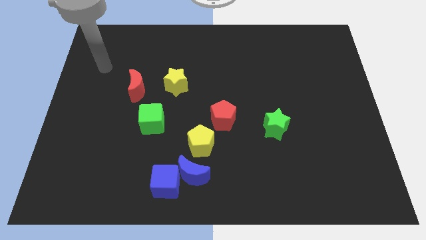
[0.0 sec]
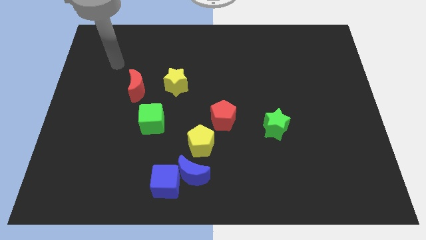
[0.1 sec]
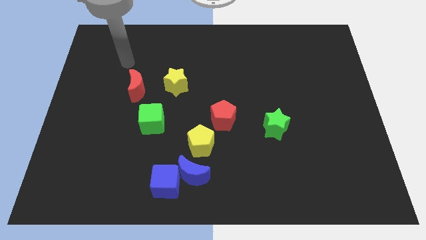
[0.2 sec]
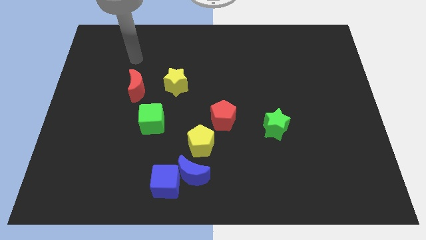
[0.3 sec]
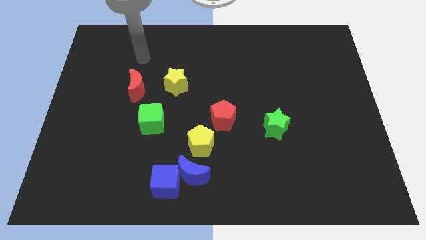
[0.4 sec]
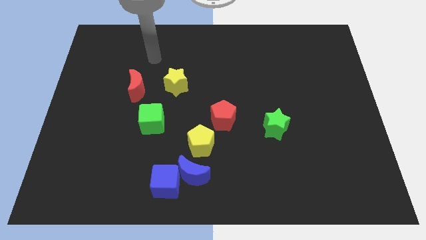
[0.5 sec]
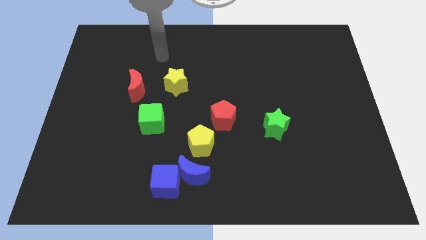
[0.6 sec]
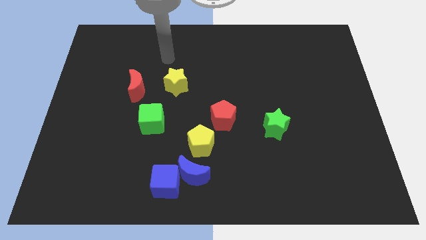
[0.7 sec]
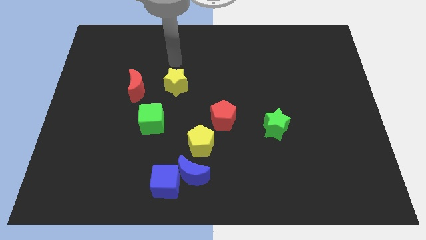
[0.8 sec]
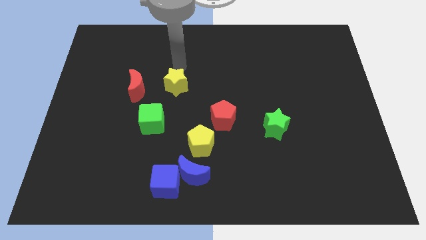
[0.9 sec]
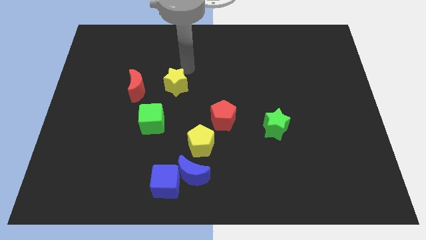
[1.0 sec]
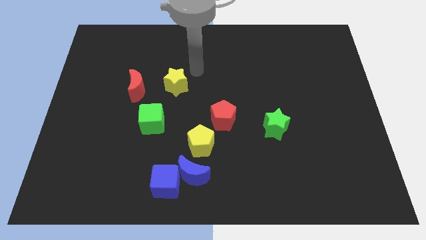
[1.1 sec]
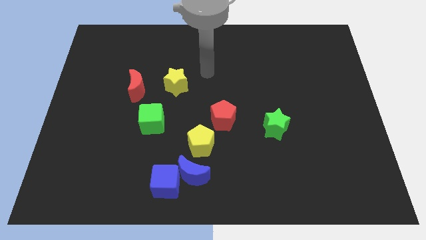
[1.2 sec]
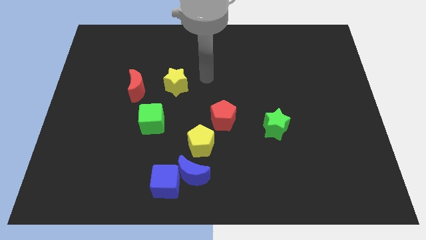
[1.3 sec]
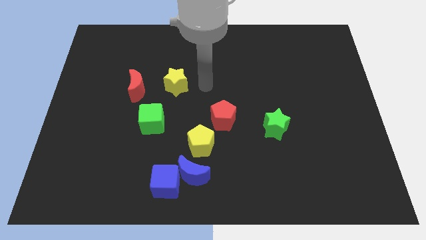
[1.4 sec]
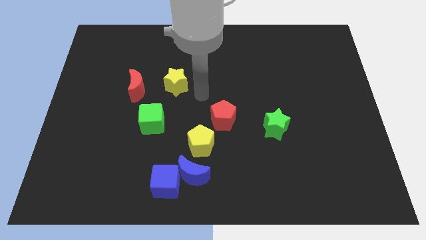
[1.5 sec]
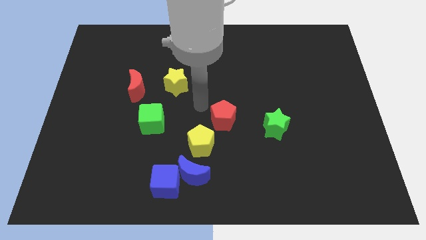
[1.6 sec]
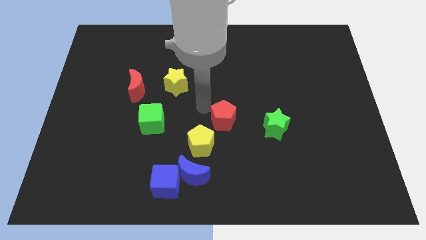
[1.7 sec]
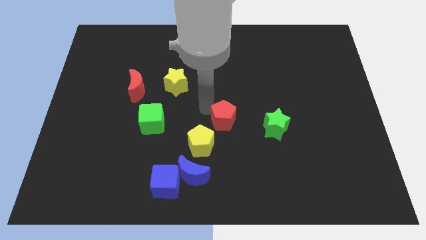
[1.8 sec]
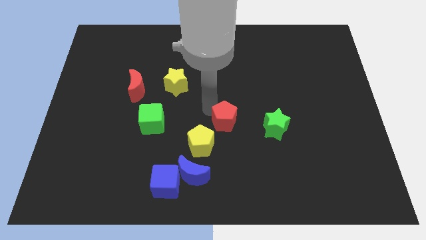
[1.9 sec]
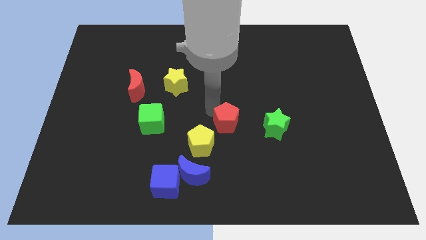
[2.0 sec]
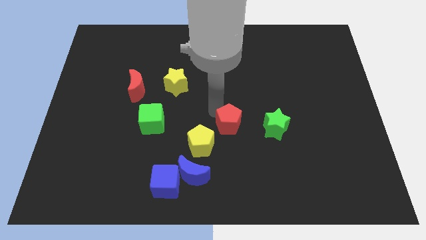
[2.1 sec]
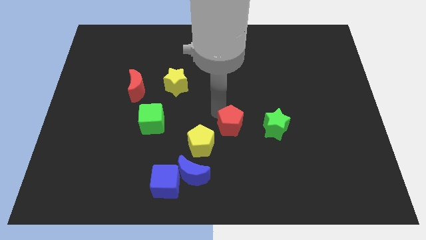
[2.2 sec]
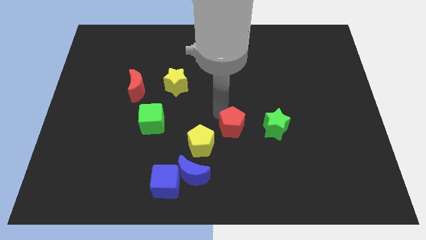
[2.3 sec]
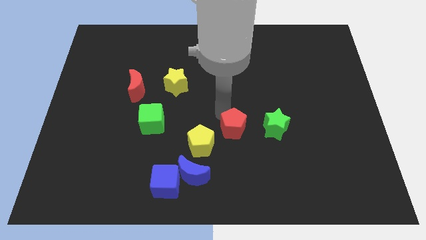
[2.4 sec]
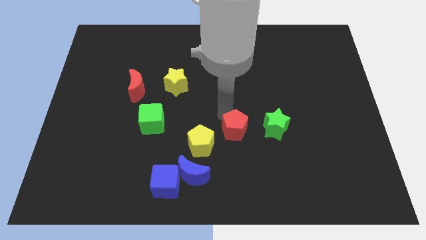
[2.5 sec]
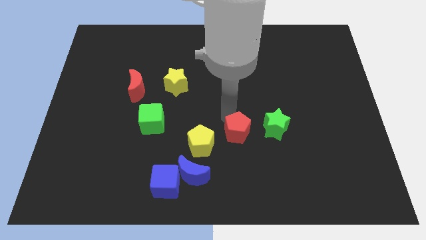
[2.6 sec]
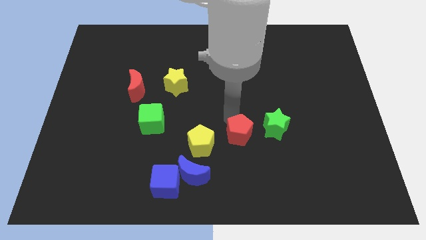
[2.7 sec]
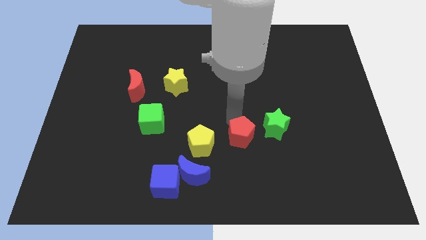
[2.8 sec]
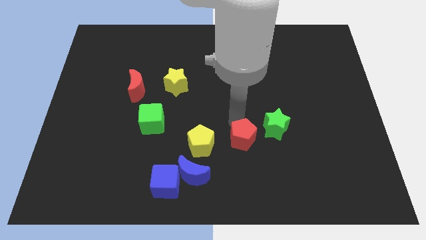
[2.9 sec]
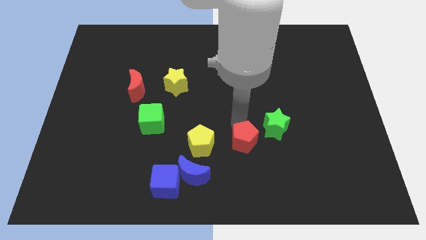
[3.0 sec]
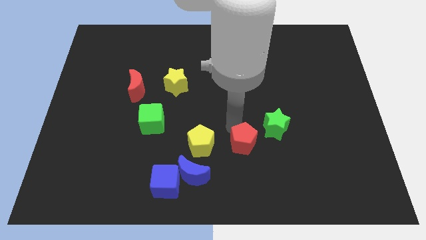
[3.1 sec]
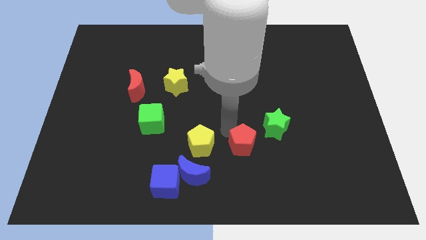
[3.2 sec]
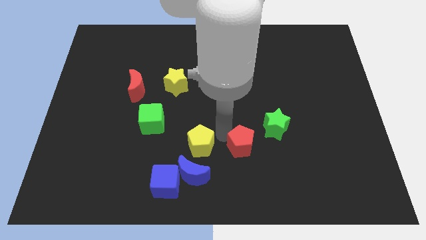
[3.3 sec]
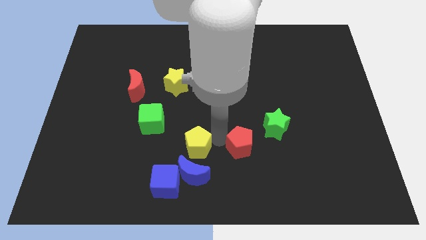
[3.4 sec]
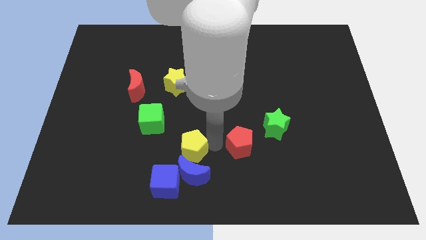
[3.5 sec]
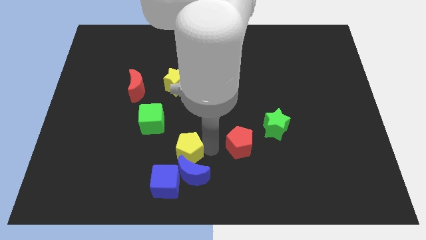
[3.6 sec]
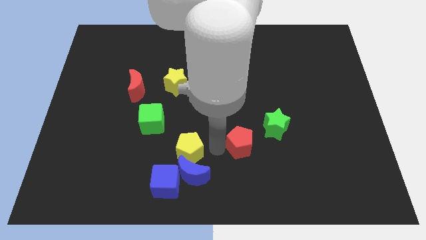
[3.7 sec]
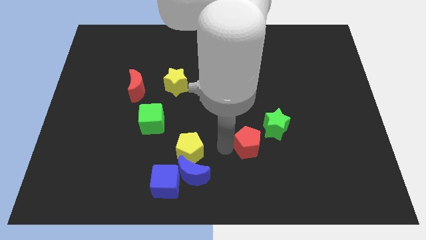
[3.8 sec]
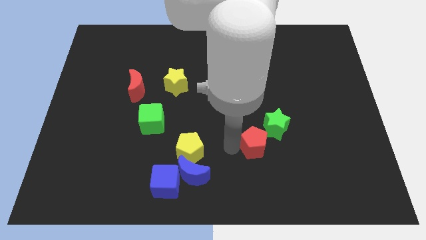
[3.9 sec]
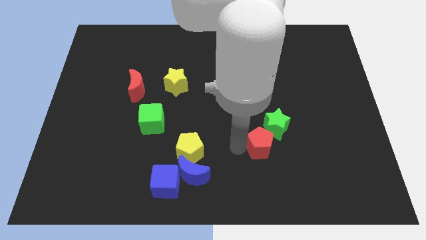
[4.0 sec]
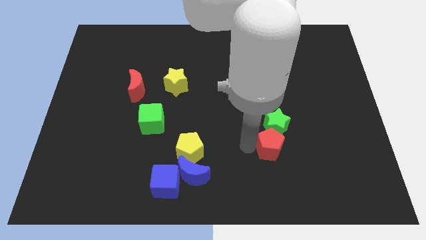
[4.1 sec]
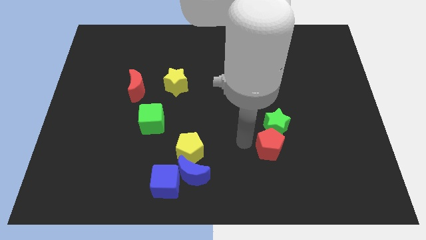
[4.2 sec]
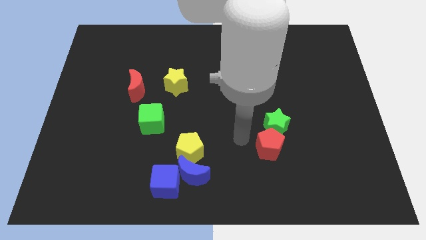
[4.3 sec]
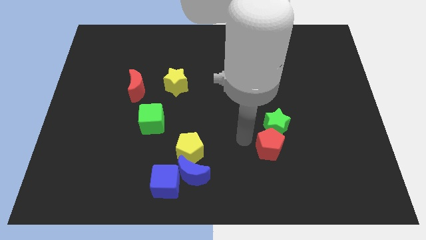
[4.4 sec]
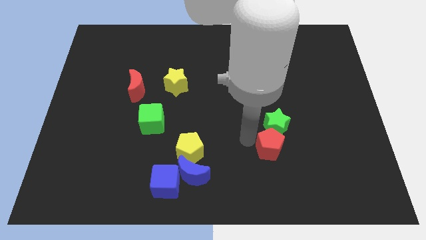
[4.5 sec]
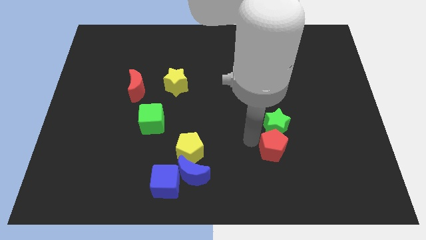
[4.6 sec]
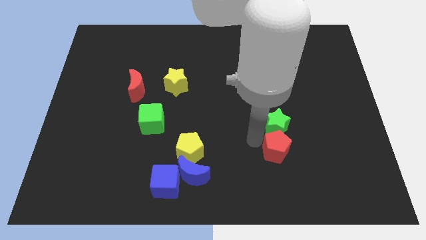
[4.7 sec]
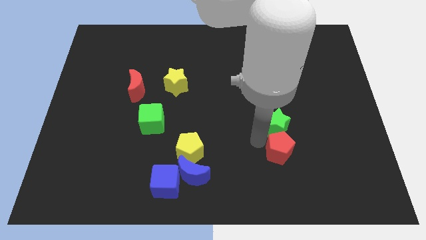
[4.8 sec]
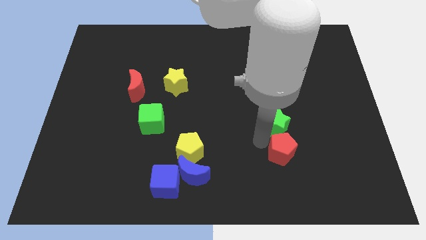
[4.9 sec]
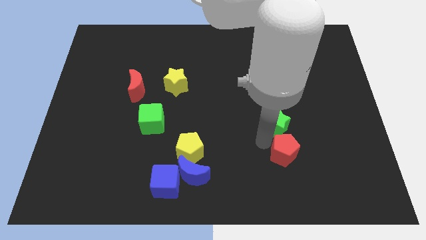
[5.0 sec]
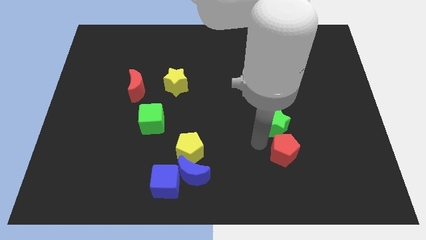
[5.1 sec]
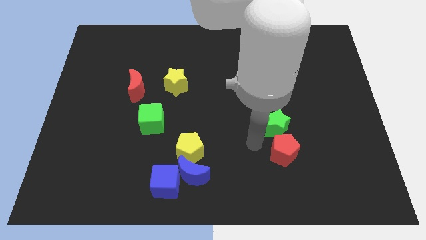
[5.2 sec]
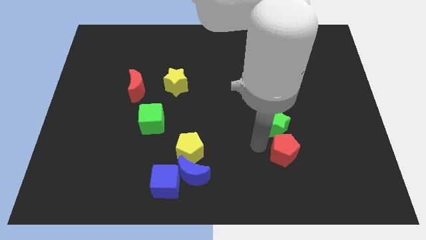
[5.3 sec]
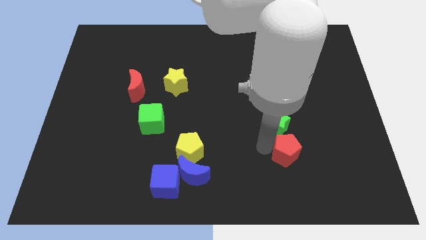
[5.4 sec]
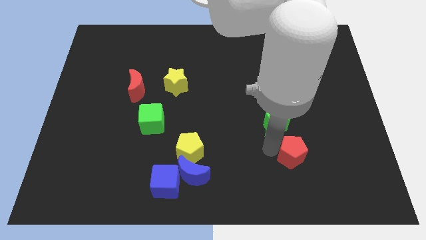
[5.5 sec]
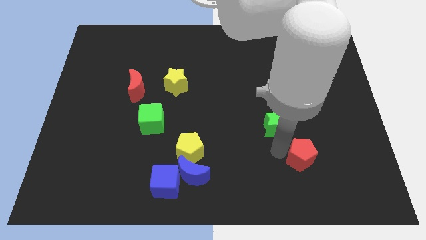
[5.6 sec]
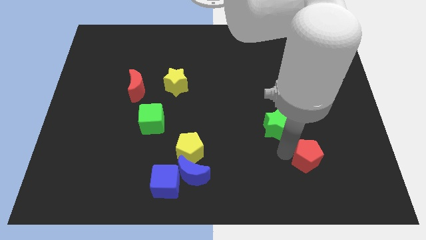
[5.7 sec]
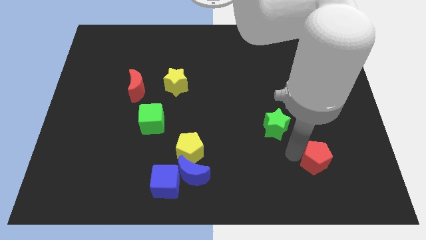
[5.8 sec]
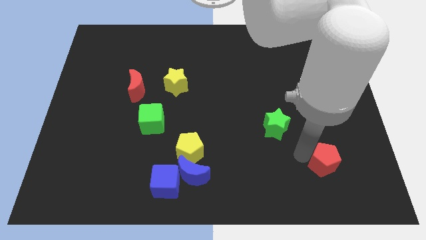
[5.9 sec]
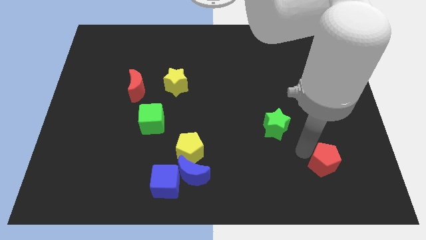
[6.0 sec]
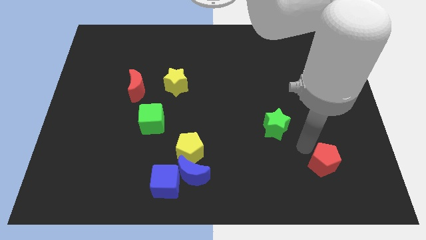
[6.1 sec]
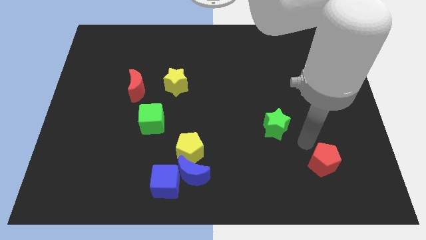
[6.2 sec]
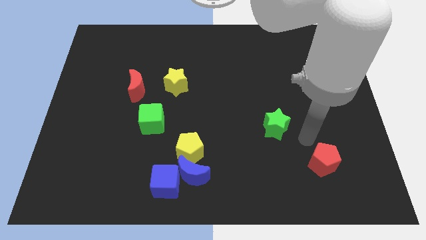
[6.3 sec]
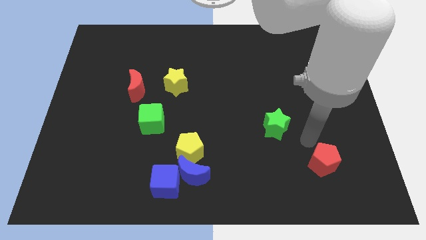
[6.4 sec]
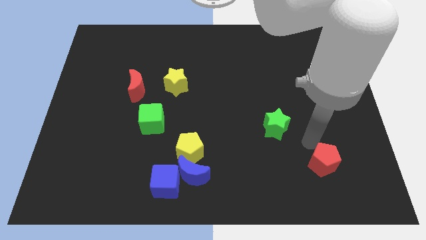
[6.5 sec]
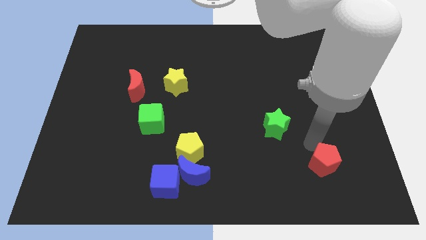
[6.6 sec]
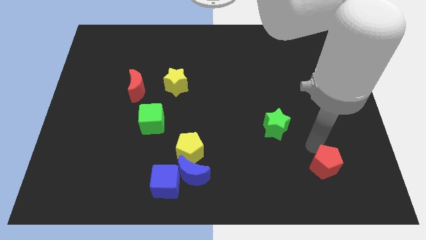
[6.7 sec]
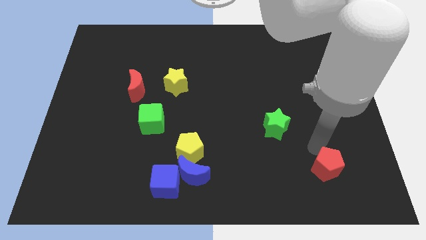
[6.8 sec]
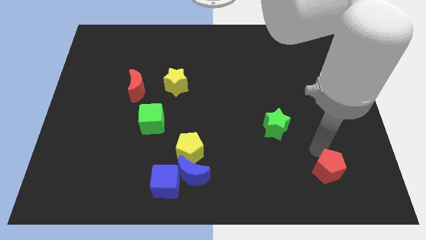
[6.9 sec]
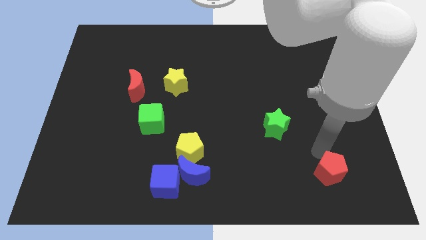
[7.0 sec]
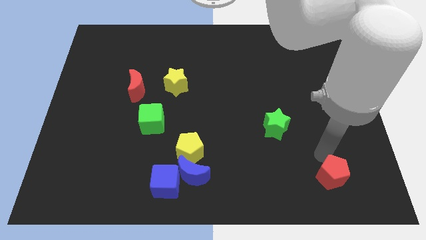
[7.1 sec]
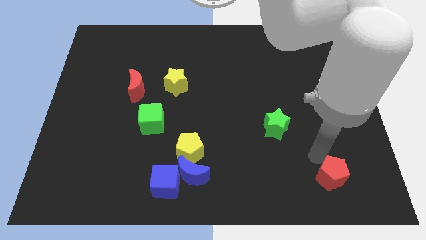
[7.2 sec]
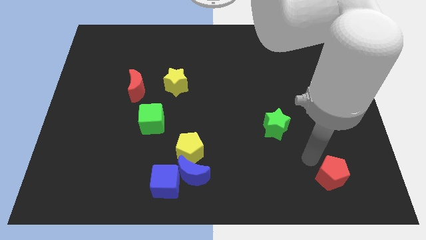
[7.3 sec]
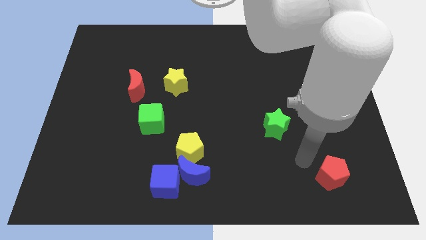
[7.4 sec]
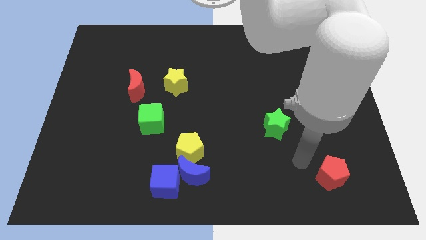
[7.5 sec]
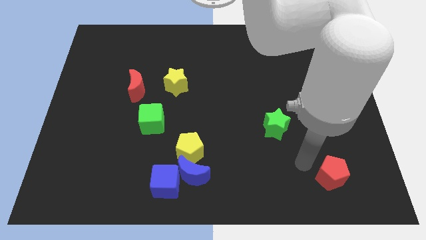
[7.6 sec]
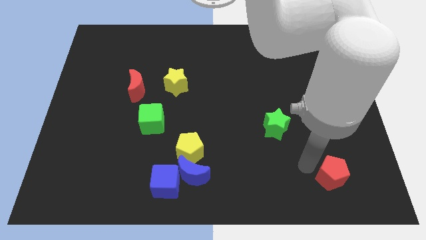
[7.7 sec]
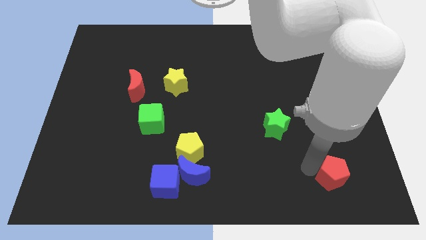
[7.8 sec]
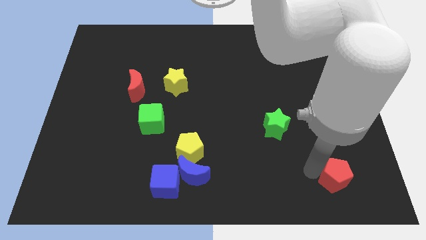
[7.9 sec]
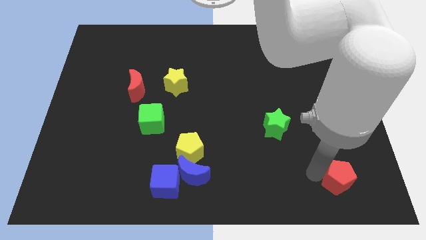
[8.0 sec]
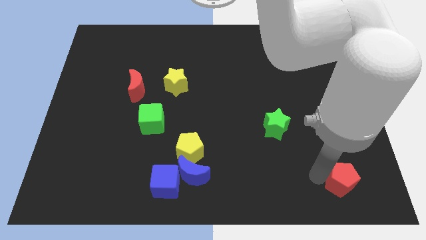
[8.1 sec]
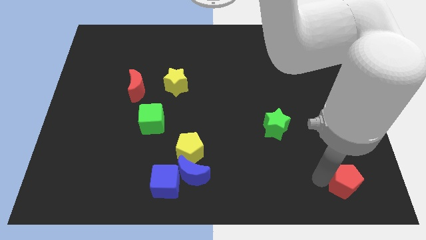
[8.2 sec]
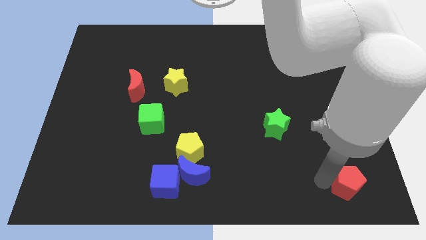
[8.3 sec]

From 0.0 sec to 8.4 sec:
put the red pentagon to the bottom right
